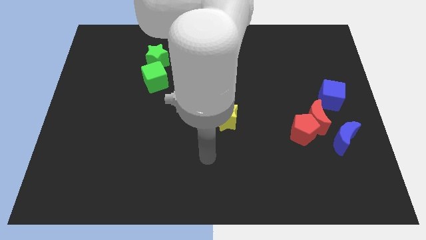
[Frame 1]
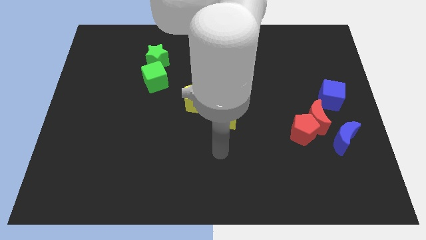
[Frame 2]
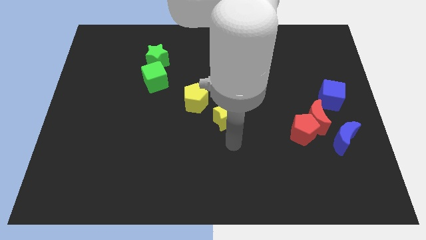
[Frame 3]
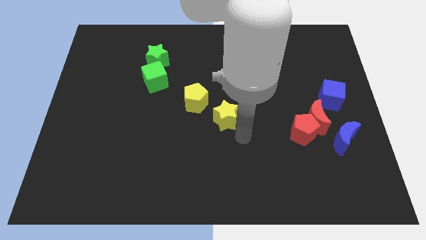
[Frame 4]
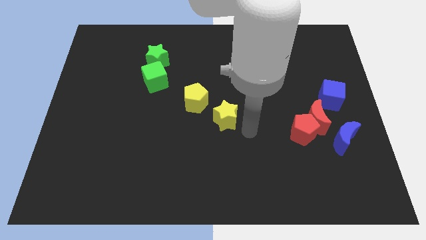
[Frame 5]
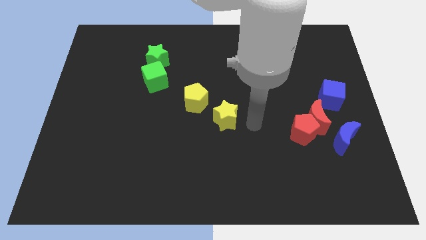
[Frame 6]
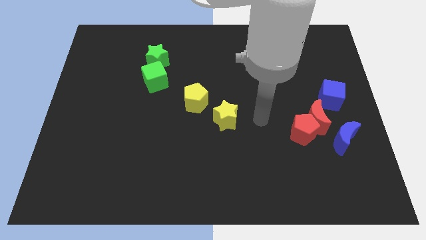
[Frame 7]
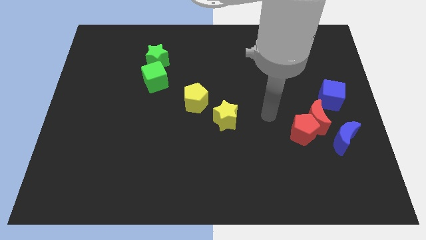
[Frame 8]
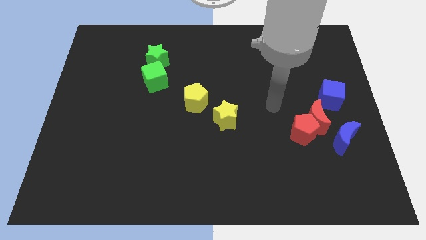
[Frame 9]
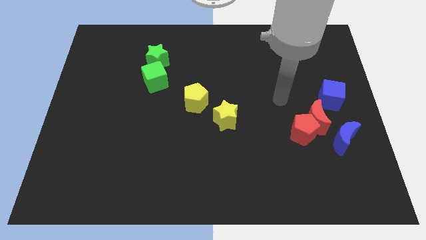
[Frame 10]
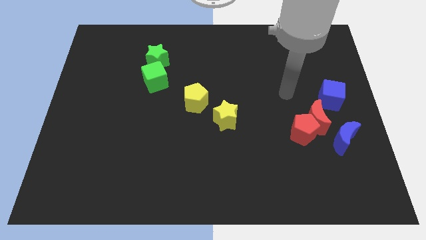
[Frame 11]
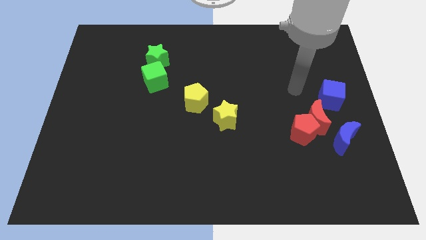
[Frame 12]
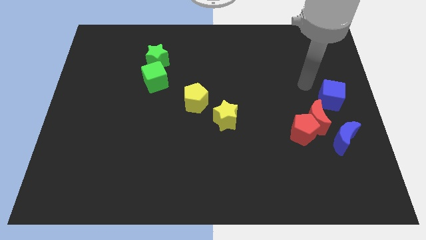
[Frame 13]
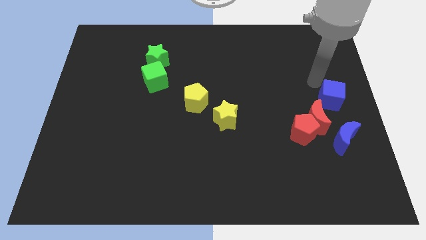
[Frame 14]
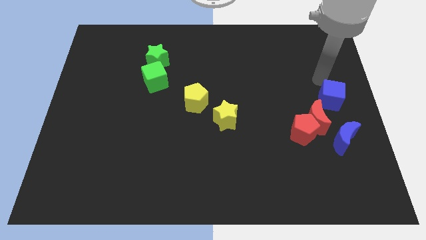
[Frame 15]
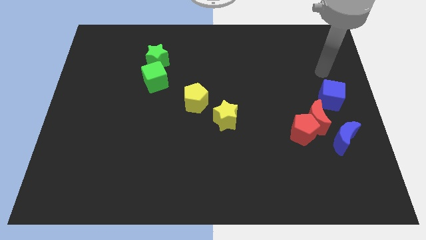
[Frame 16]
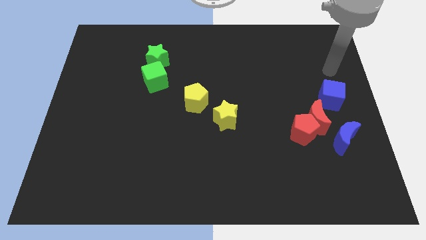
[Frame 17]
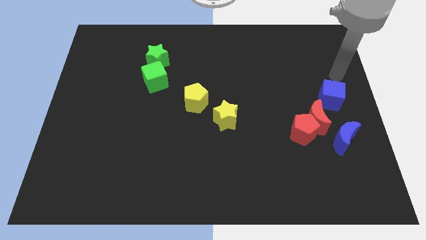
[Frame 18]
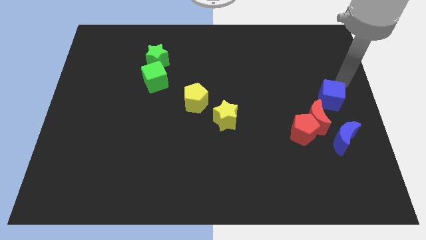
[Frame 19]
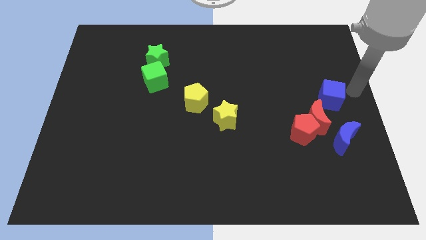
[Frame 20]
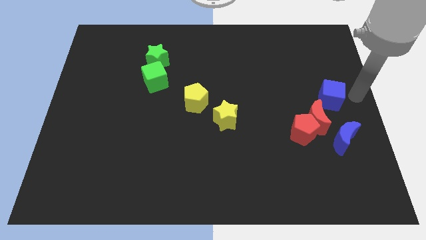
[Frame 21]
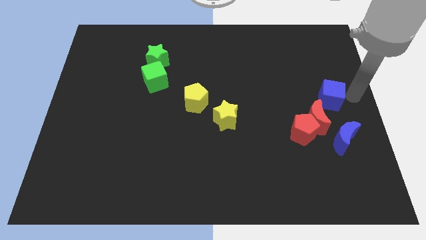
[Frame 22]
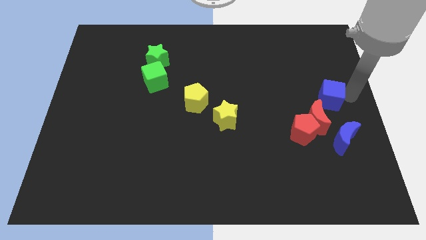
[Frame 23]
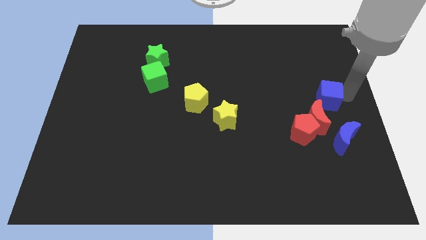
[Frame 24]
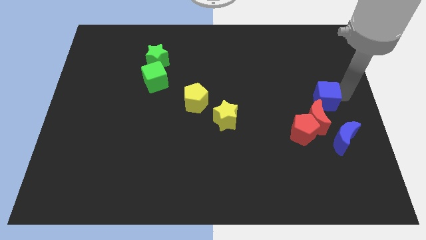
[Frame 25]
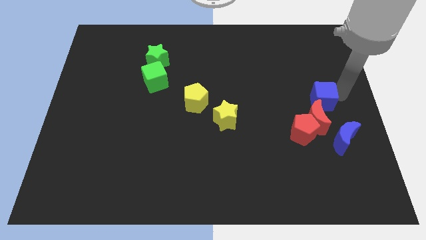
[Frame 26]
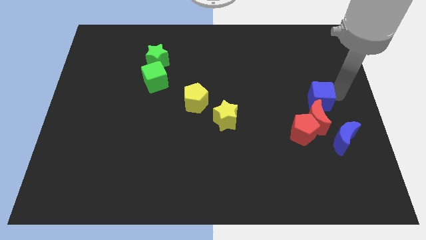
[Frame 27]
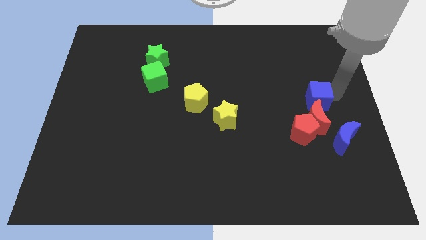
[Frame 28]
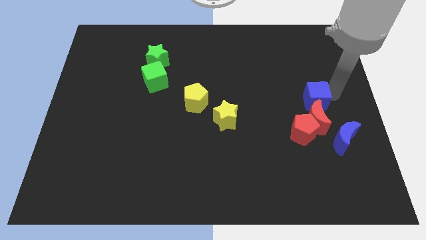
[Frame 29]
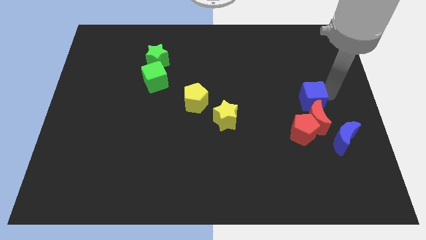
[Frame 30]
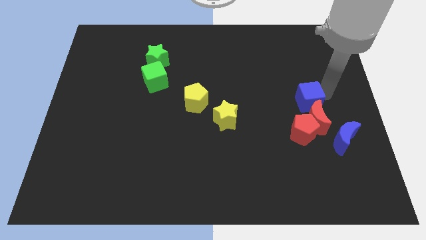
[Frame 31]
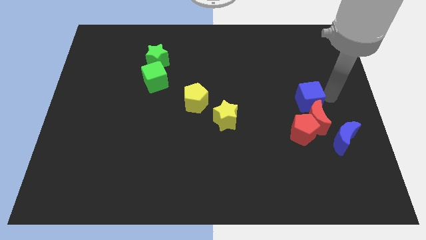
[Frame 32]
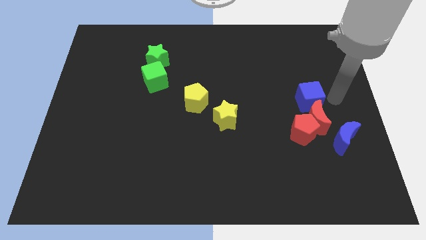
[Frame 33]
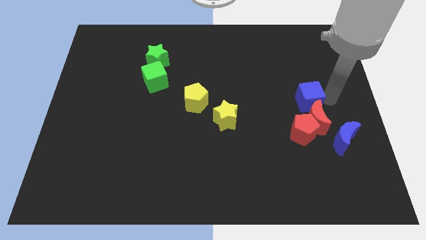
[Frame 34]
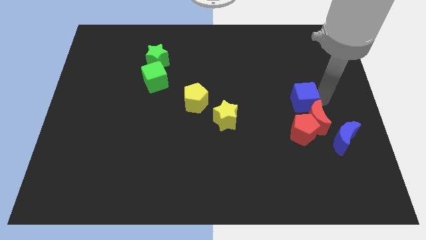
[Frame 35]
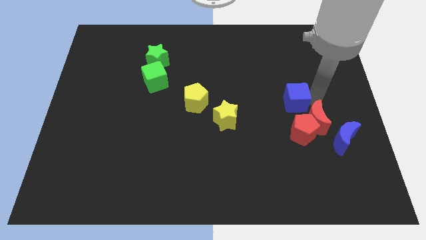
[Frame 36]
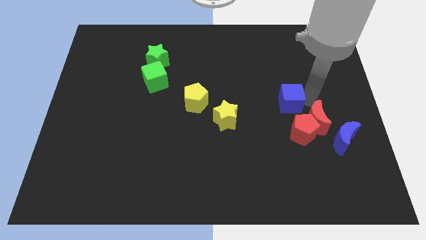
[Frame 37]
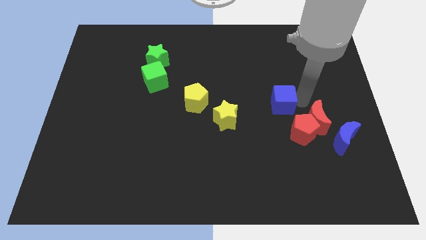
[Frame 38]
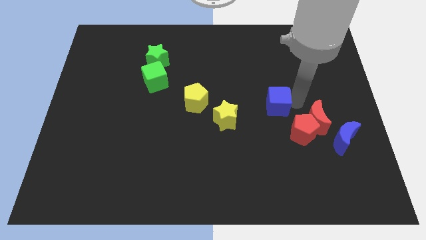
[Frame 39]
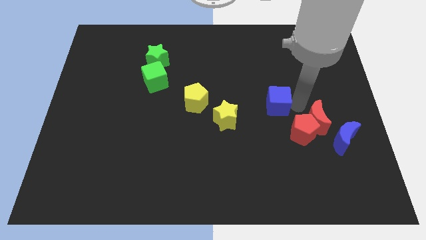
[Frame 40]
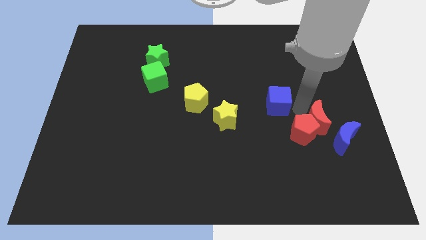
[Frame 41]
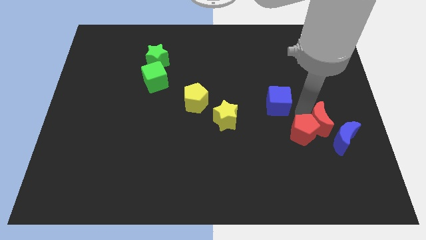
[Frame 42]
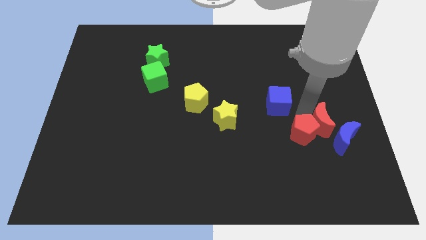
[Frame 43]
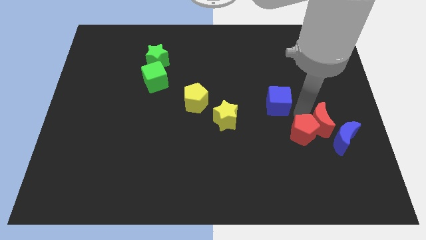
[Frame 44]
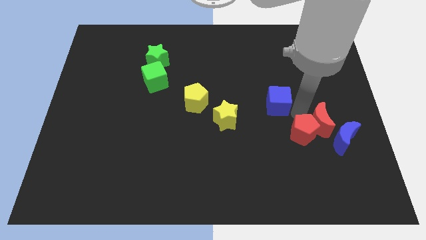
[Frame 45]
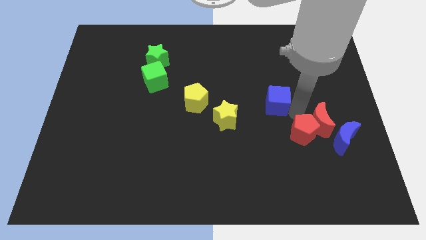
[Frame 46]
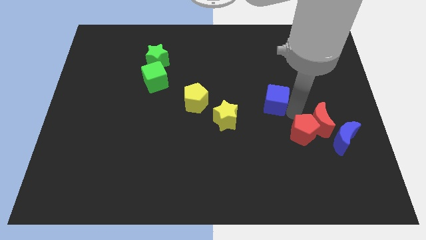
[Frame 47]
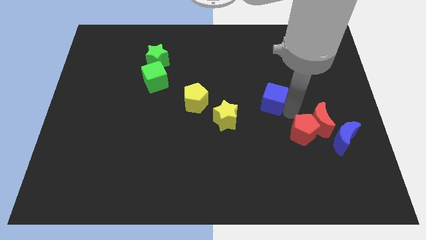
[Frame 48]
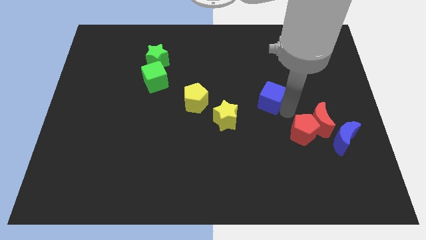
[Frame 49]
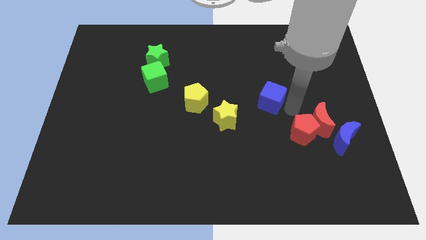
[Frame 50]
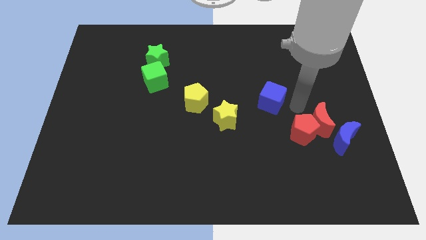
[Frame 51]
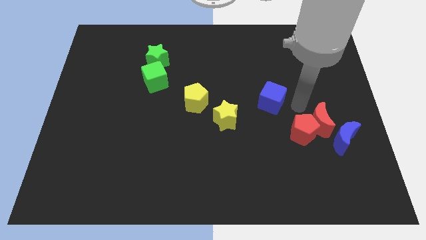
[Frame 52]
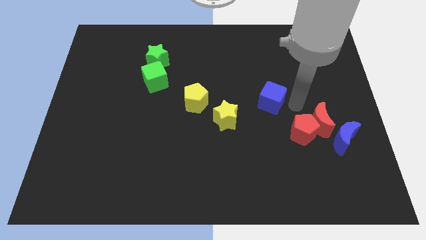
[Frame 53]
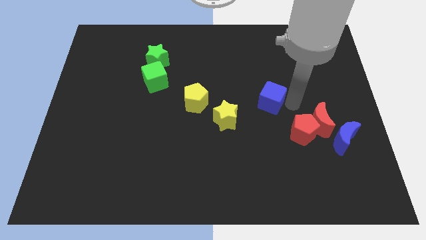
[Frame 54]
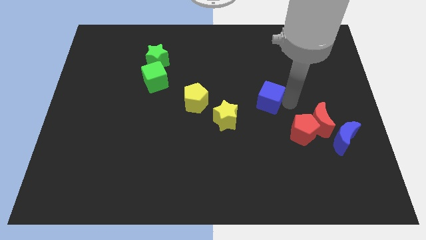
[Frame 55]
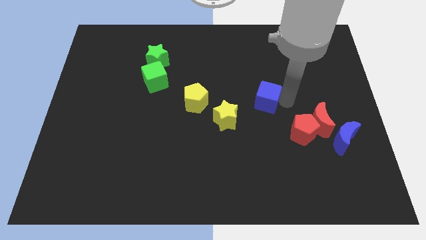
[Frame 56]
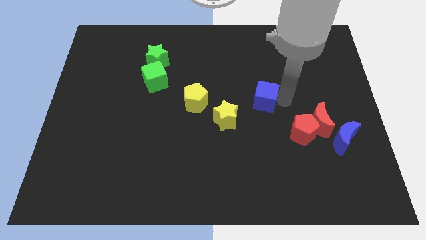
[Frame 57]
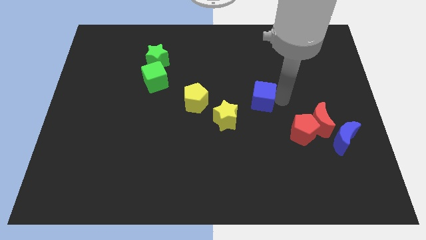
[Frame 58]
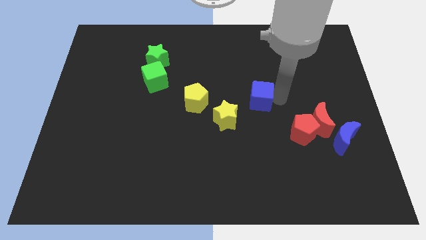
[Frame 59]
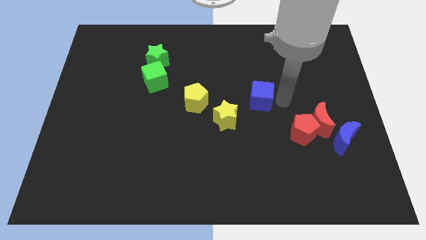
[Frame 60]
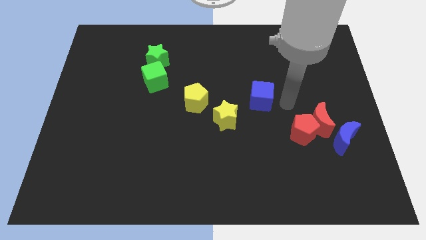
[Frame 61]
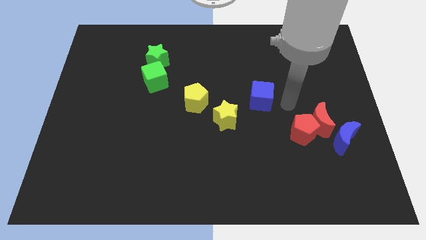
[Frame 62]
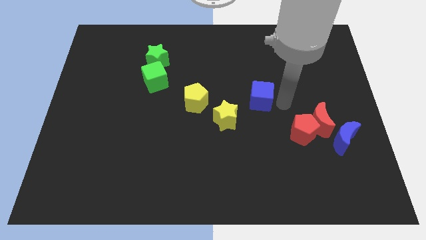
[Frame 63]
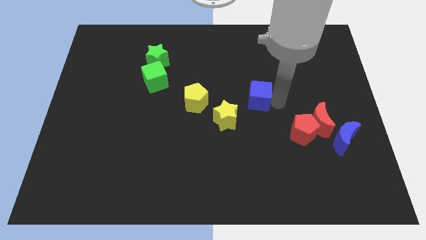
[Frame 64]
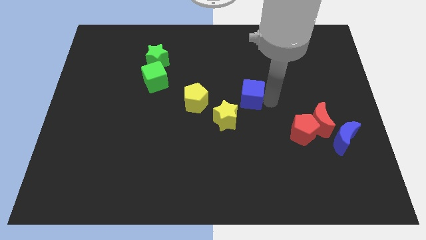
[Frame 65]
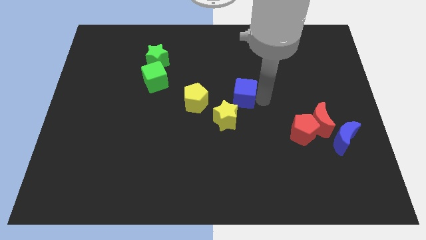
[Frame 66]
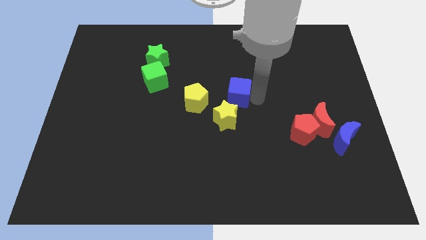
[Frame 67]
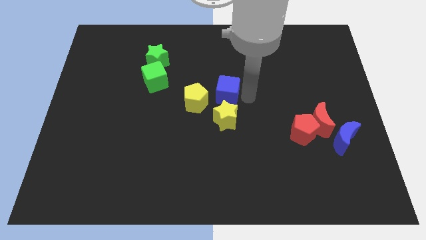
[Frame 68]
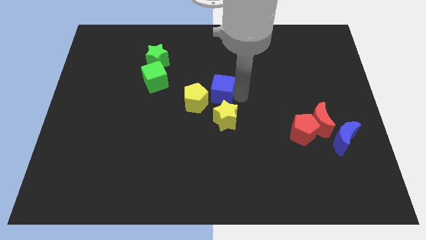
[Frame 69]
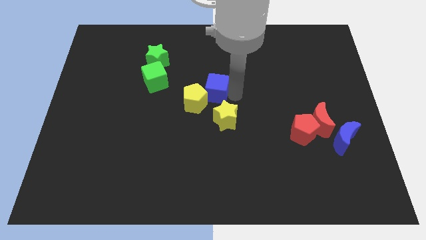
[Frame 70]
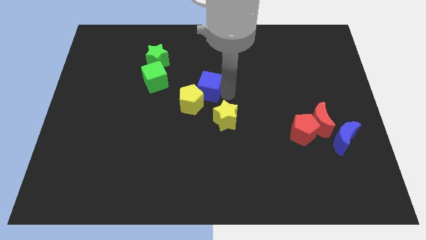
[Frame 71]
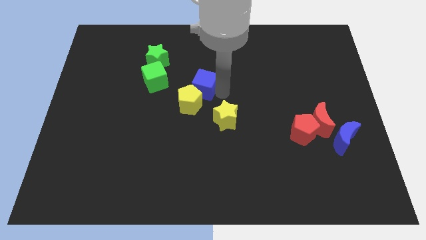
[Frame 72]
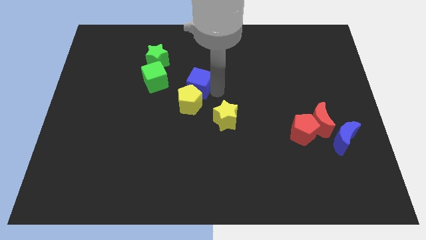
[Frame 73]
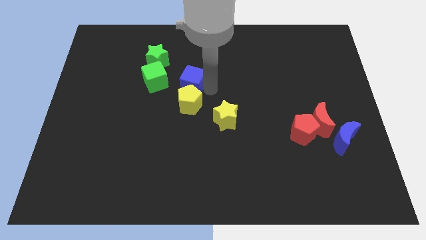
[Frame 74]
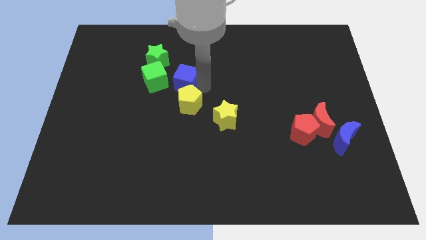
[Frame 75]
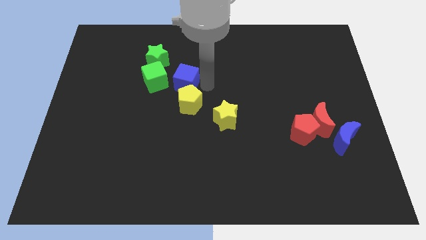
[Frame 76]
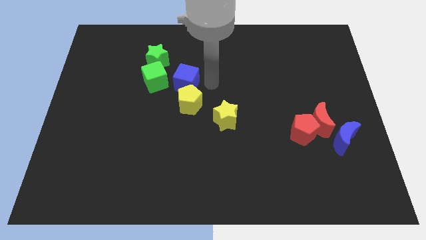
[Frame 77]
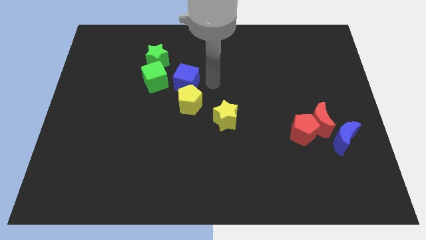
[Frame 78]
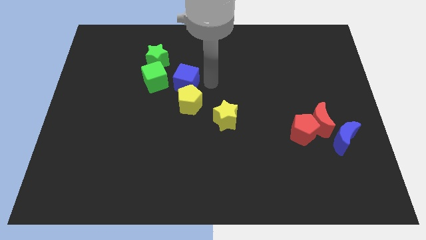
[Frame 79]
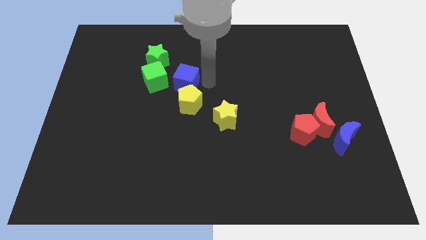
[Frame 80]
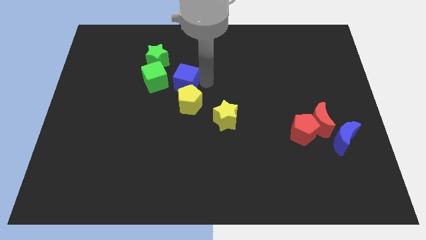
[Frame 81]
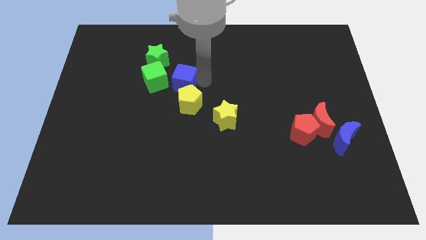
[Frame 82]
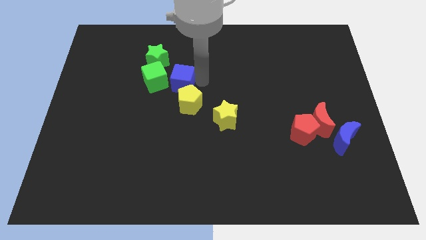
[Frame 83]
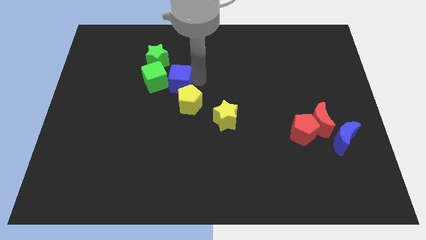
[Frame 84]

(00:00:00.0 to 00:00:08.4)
slide the blue cube next to the green cube
